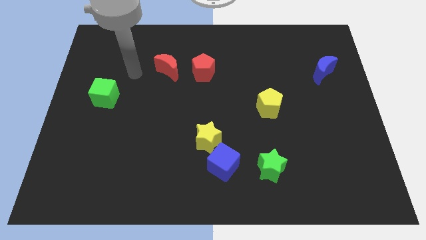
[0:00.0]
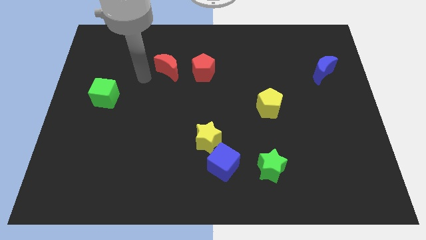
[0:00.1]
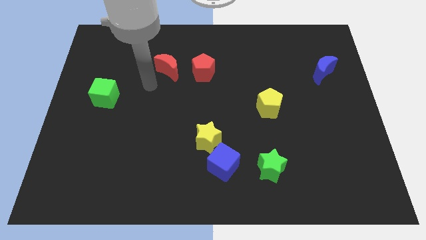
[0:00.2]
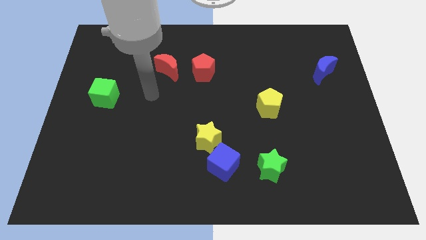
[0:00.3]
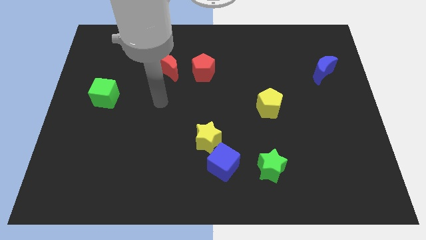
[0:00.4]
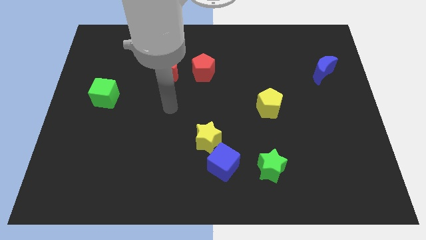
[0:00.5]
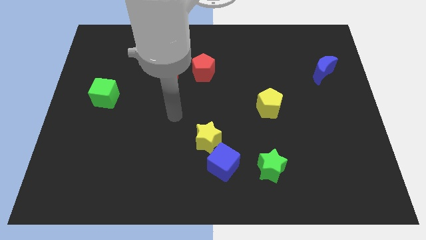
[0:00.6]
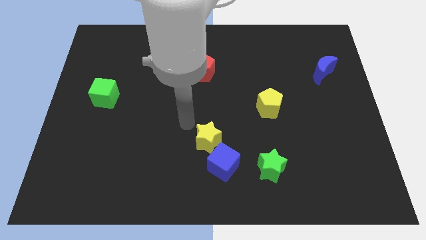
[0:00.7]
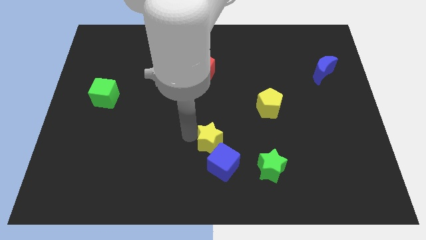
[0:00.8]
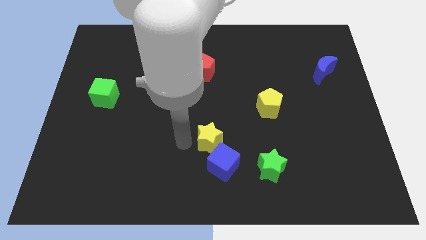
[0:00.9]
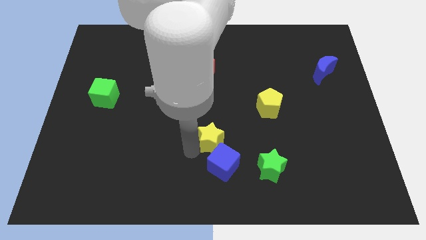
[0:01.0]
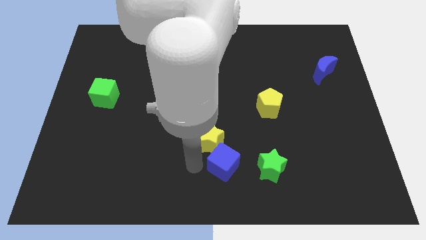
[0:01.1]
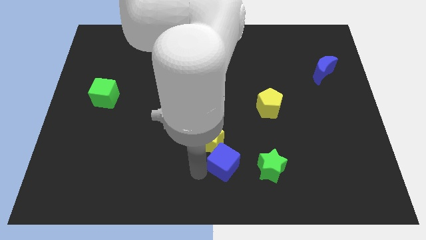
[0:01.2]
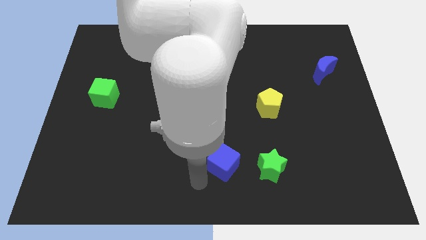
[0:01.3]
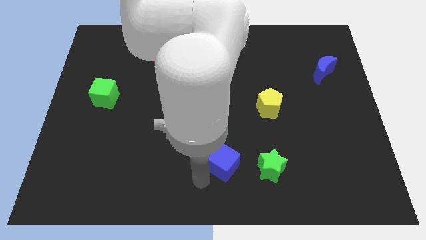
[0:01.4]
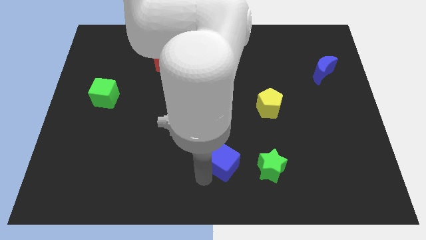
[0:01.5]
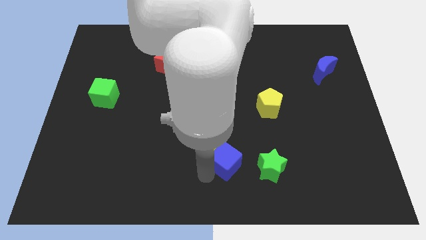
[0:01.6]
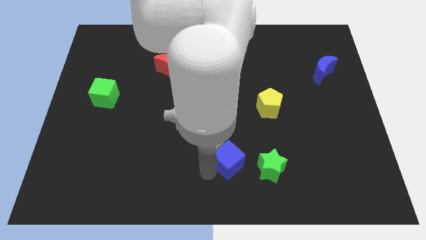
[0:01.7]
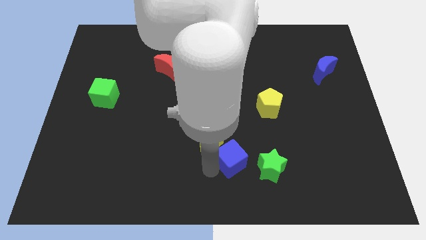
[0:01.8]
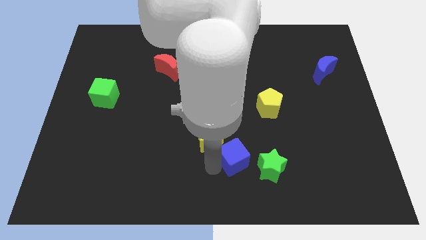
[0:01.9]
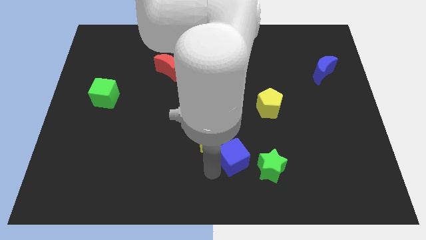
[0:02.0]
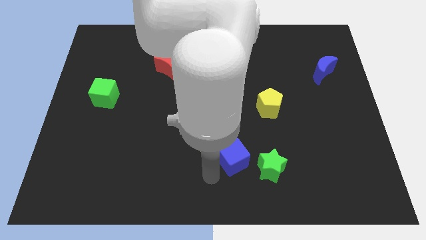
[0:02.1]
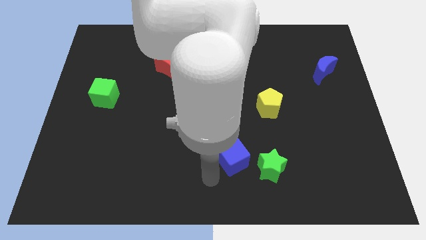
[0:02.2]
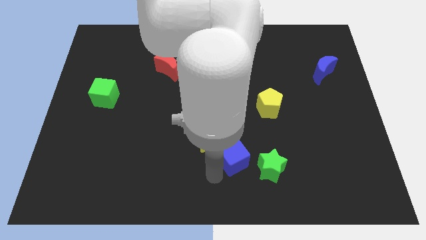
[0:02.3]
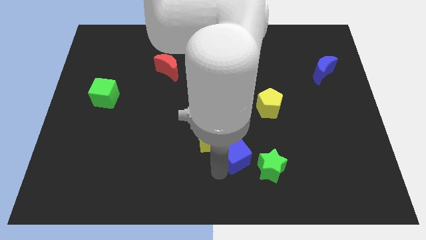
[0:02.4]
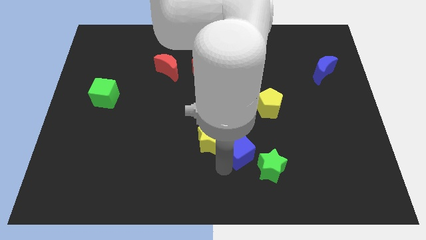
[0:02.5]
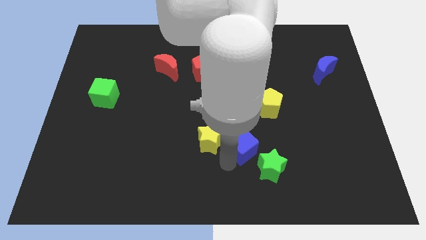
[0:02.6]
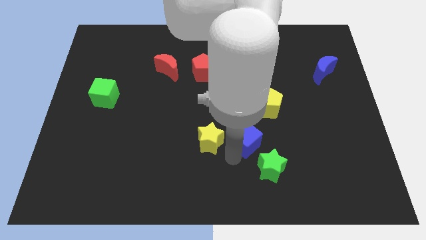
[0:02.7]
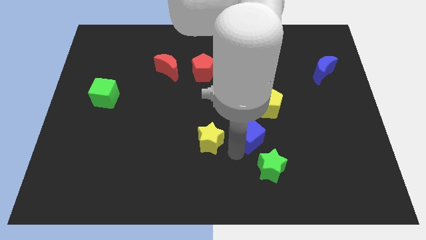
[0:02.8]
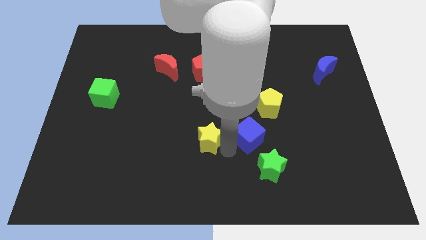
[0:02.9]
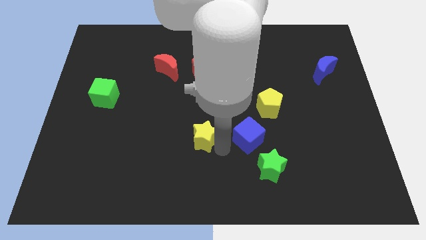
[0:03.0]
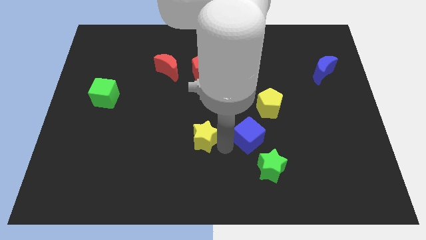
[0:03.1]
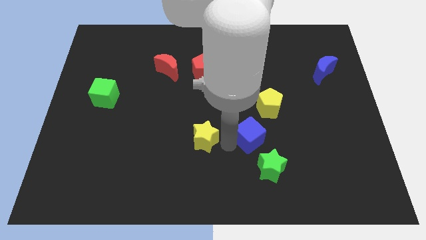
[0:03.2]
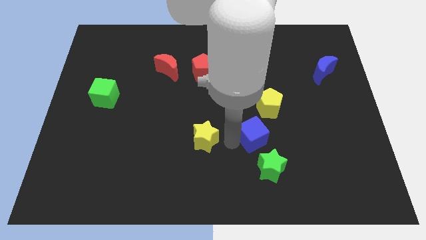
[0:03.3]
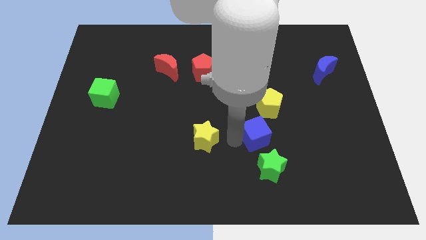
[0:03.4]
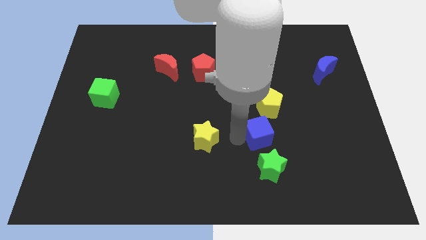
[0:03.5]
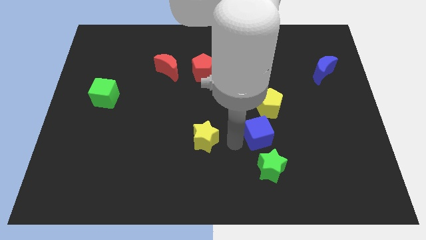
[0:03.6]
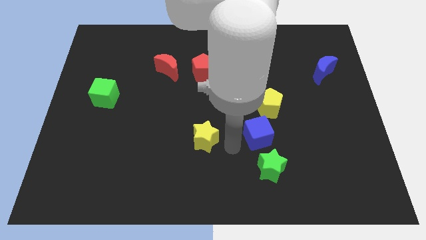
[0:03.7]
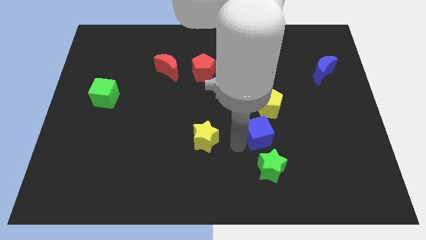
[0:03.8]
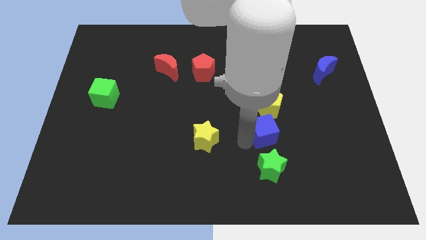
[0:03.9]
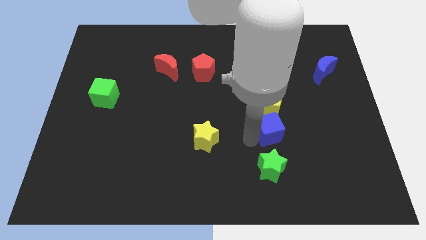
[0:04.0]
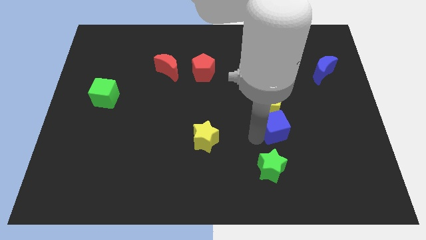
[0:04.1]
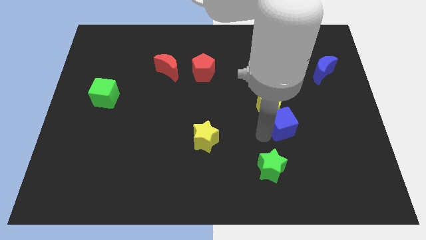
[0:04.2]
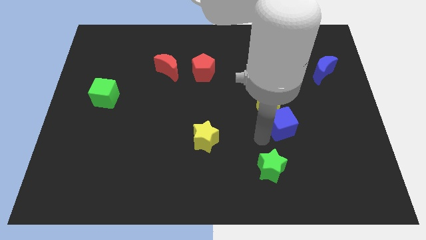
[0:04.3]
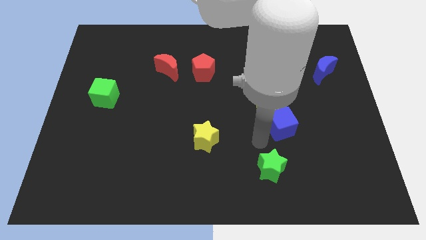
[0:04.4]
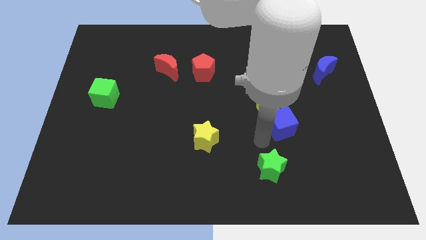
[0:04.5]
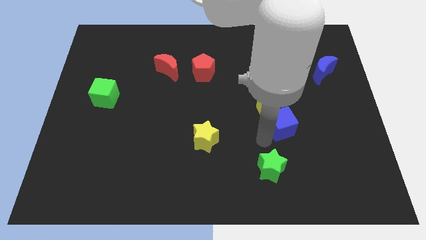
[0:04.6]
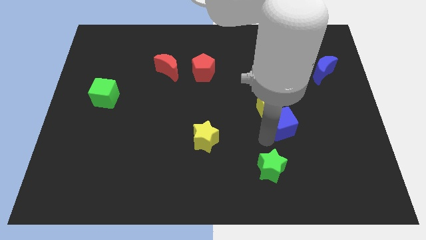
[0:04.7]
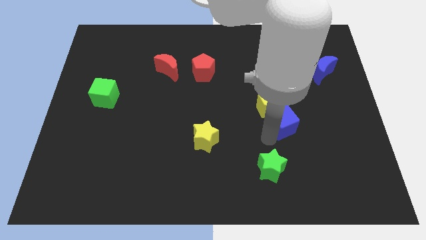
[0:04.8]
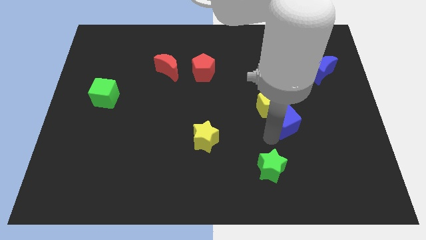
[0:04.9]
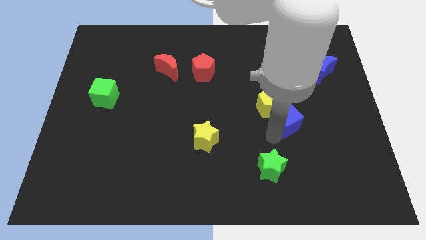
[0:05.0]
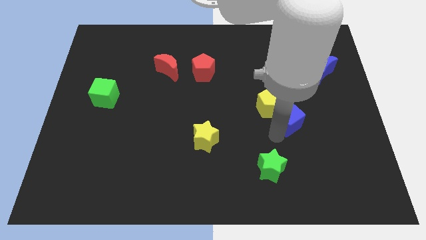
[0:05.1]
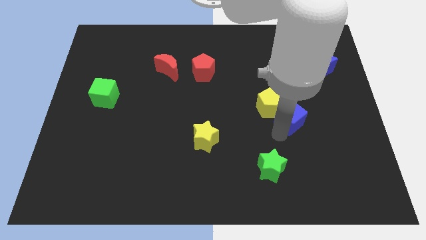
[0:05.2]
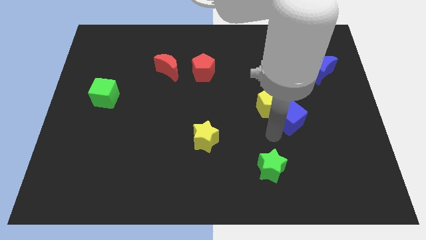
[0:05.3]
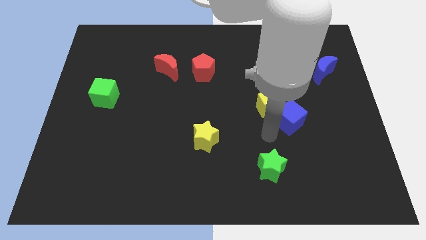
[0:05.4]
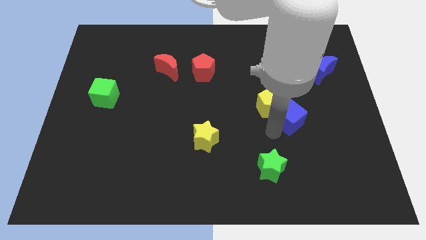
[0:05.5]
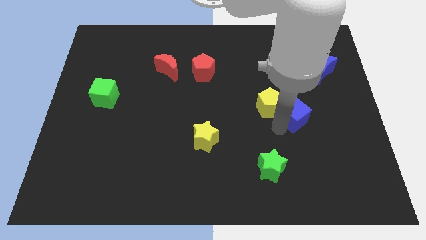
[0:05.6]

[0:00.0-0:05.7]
slide the blue cube diagonally upwards and right

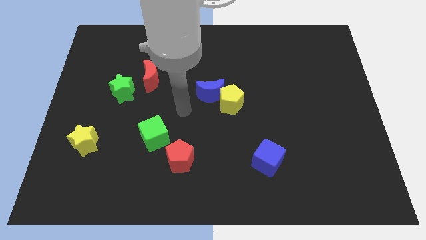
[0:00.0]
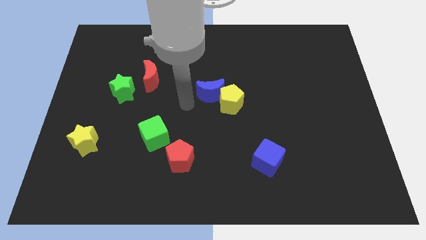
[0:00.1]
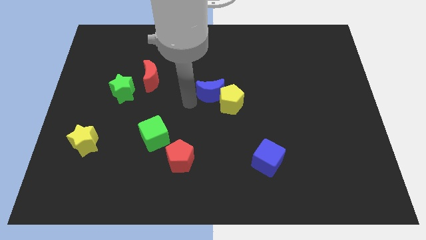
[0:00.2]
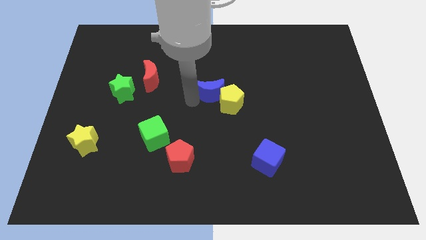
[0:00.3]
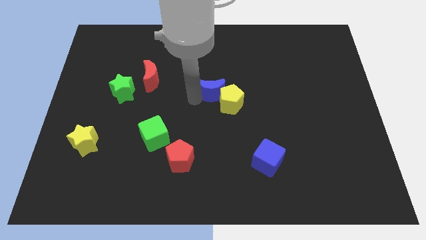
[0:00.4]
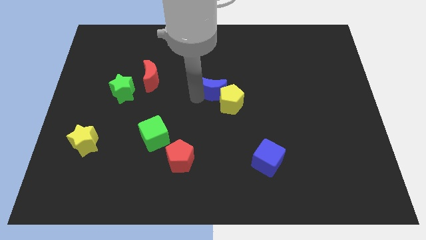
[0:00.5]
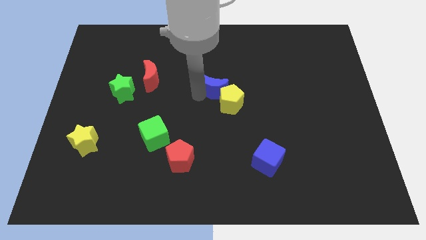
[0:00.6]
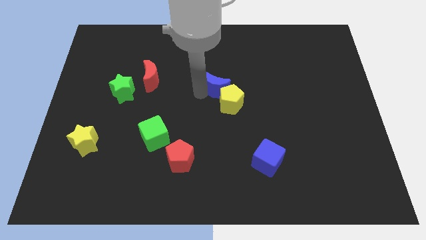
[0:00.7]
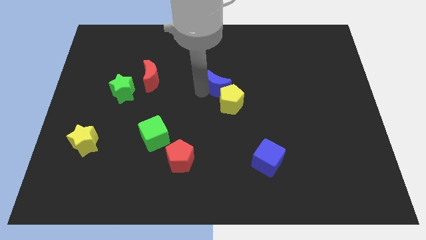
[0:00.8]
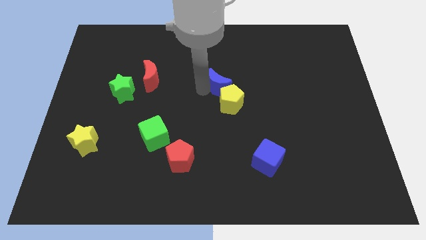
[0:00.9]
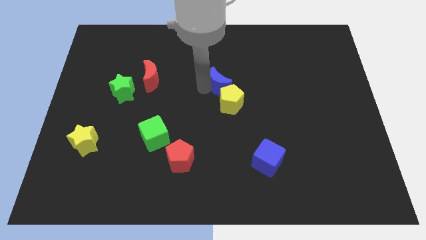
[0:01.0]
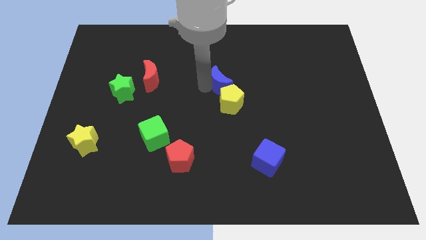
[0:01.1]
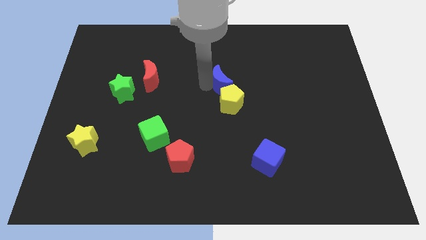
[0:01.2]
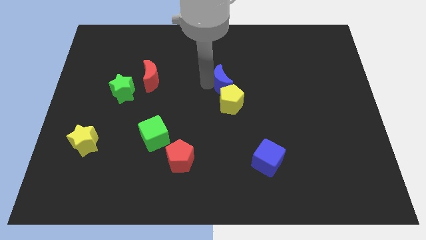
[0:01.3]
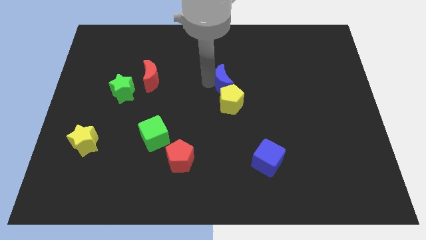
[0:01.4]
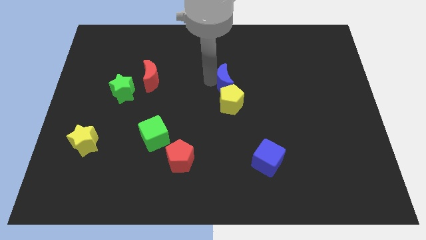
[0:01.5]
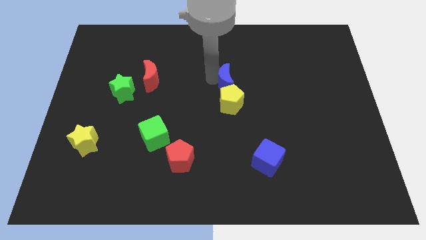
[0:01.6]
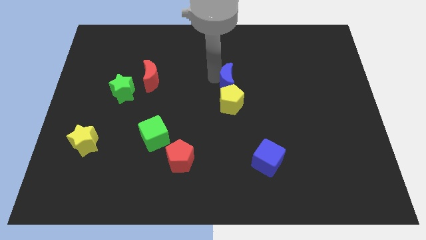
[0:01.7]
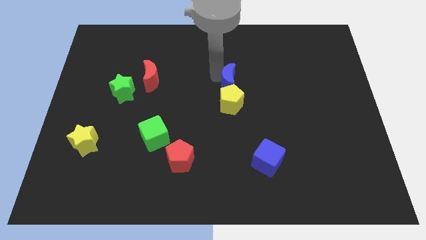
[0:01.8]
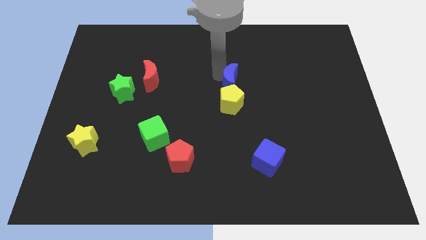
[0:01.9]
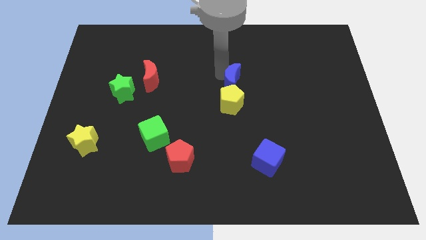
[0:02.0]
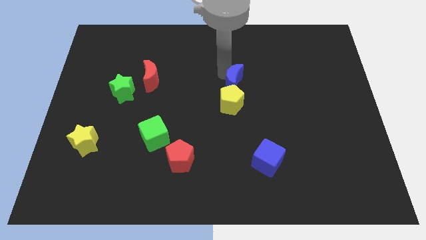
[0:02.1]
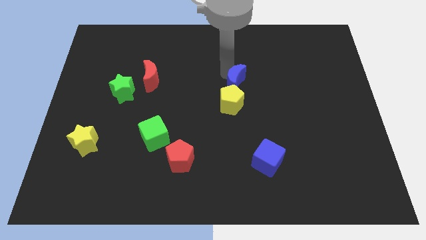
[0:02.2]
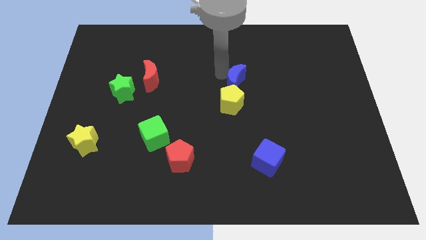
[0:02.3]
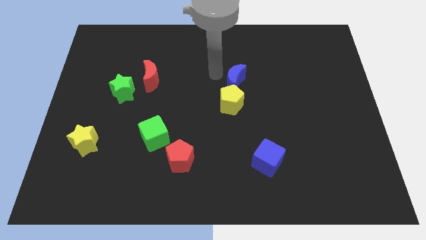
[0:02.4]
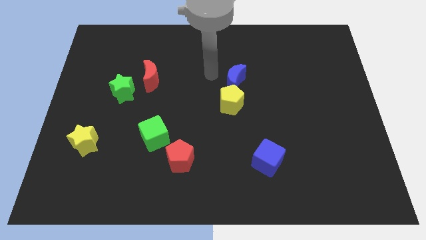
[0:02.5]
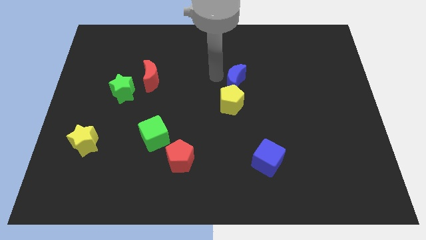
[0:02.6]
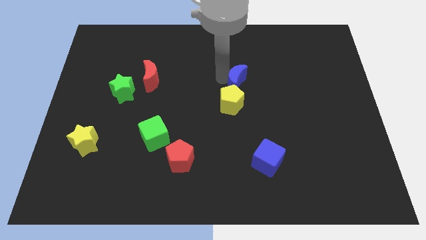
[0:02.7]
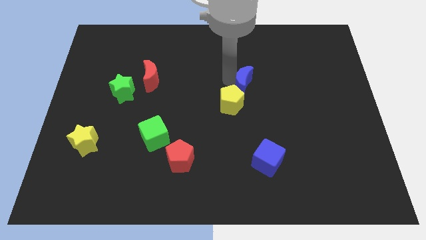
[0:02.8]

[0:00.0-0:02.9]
move the blue moon right a bit

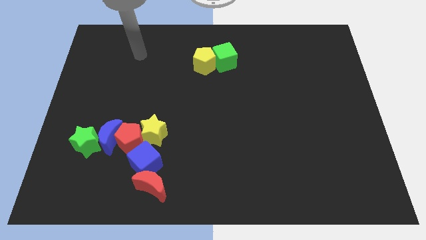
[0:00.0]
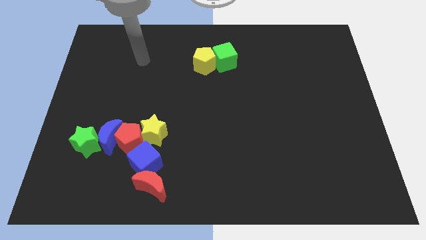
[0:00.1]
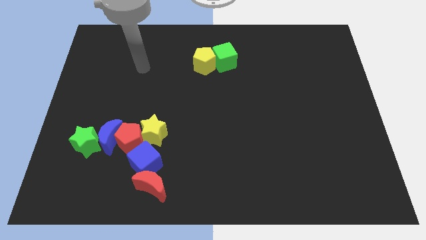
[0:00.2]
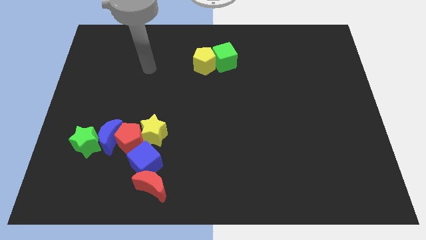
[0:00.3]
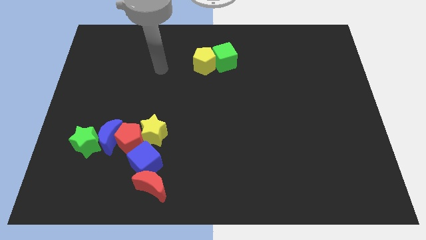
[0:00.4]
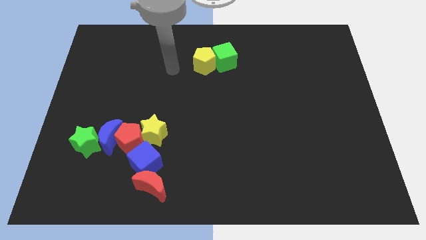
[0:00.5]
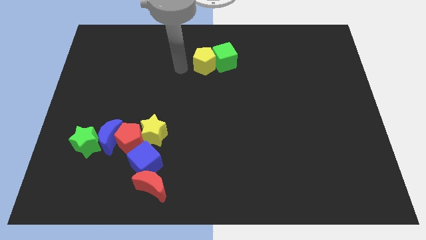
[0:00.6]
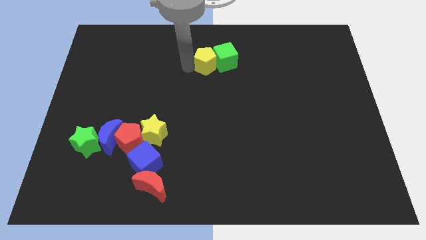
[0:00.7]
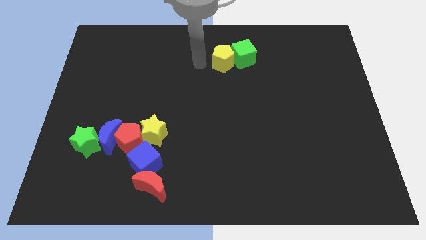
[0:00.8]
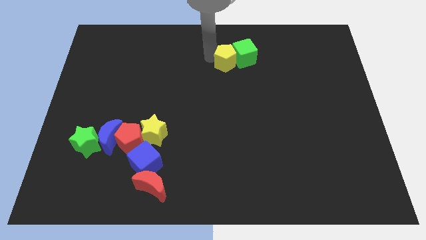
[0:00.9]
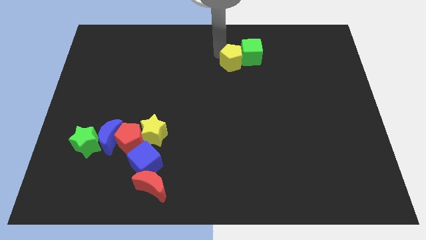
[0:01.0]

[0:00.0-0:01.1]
slightly slide the green cube right
